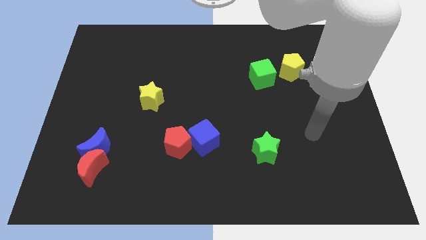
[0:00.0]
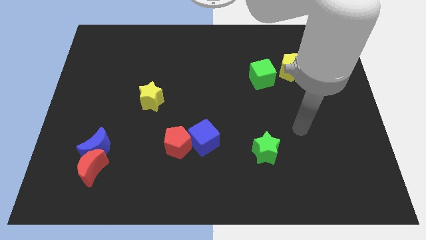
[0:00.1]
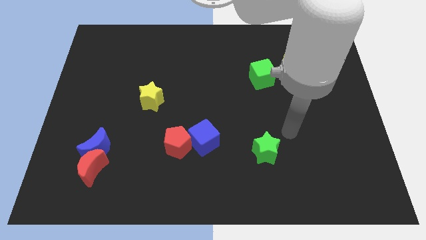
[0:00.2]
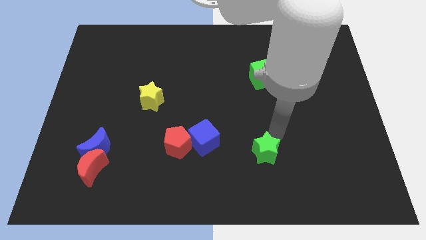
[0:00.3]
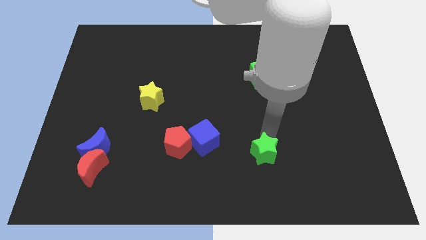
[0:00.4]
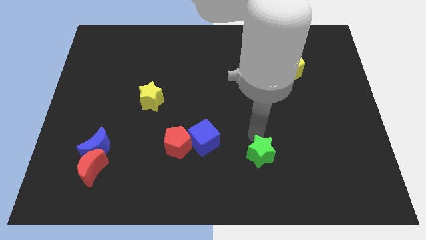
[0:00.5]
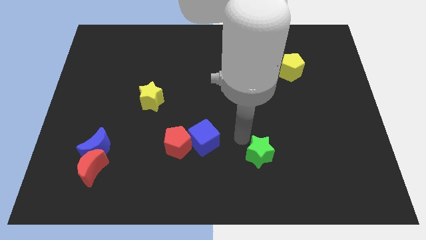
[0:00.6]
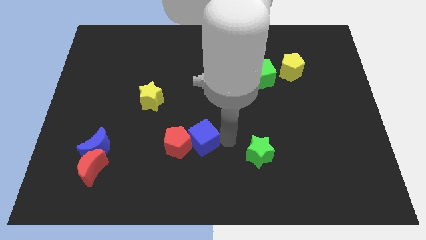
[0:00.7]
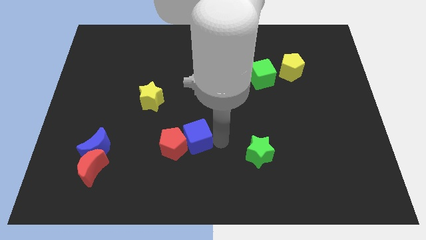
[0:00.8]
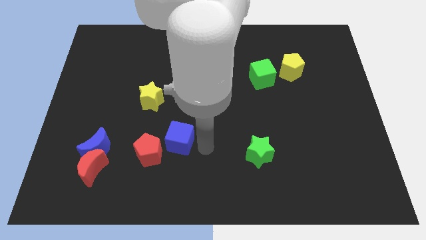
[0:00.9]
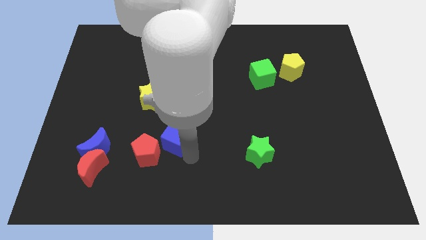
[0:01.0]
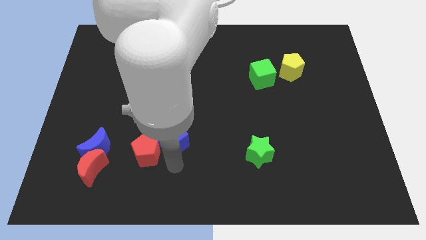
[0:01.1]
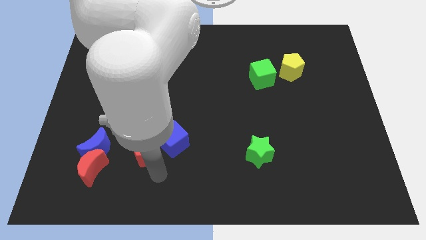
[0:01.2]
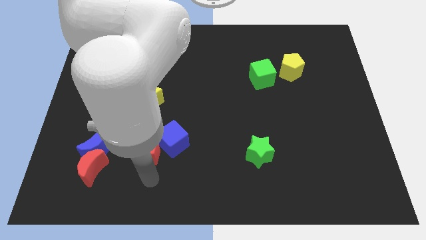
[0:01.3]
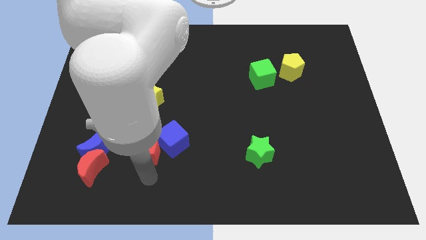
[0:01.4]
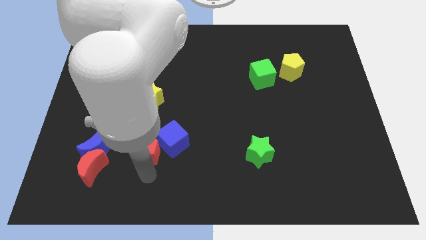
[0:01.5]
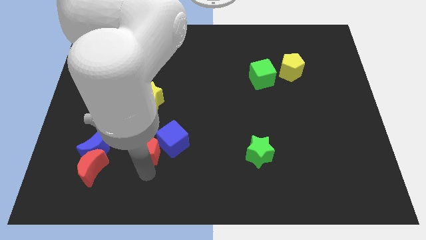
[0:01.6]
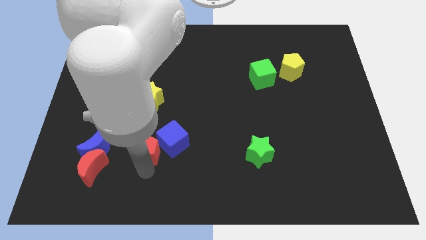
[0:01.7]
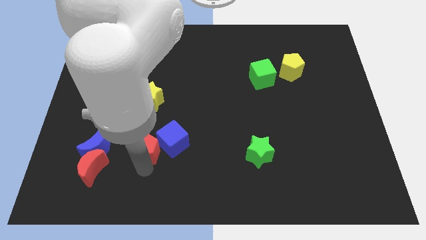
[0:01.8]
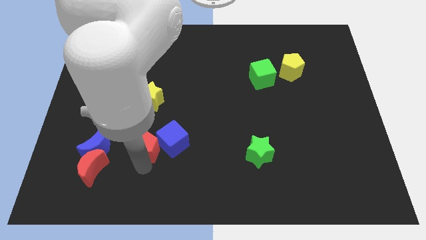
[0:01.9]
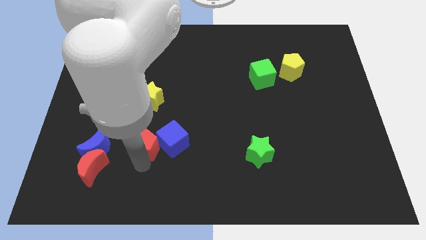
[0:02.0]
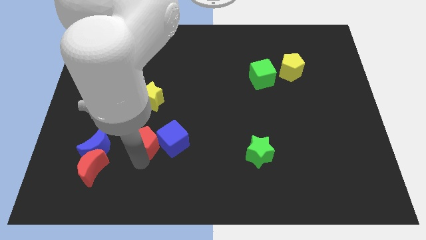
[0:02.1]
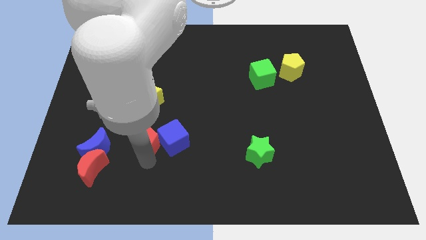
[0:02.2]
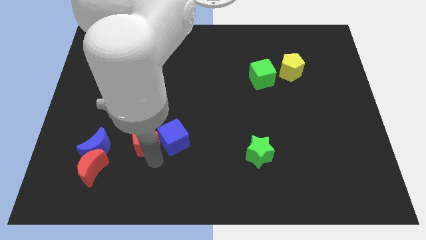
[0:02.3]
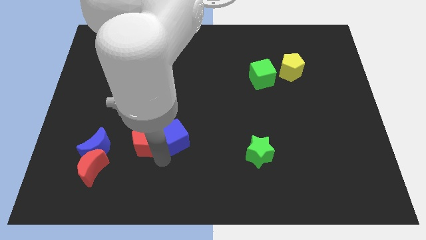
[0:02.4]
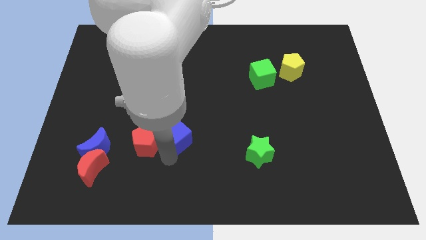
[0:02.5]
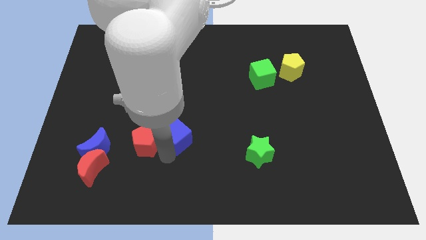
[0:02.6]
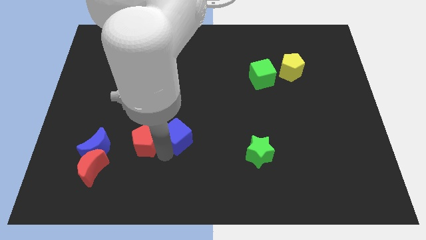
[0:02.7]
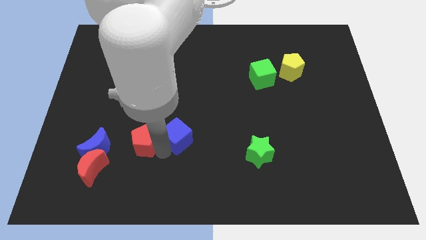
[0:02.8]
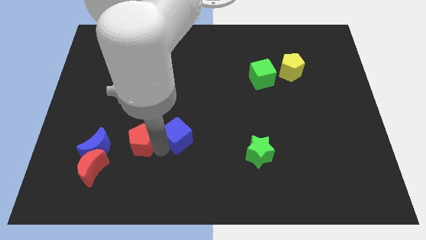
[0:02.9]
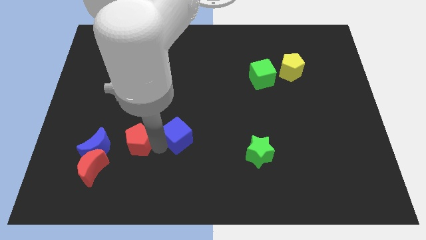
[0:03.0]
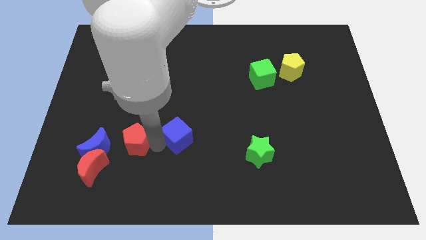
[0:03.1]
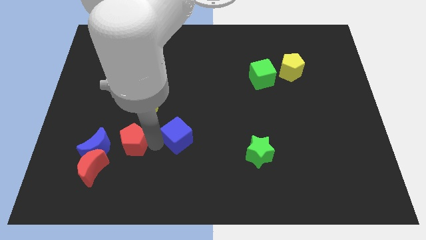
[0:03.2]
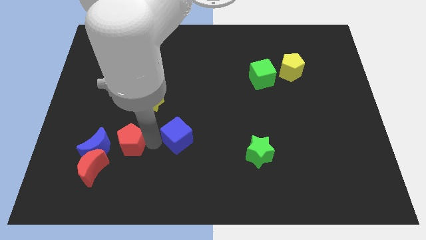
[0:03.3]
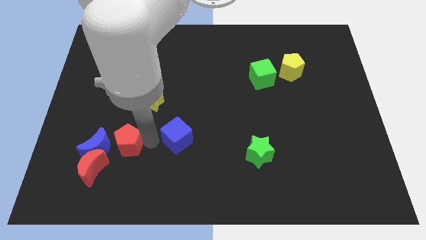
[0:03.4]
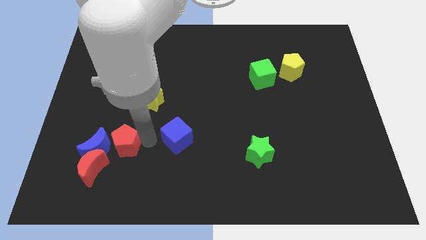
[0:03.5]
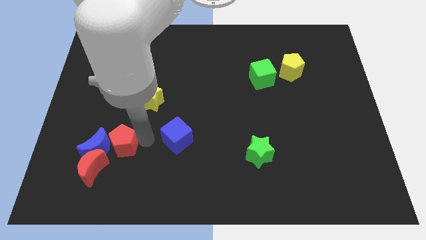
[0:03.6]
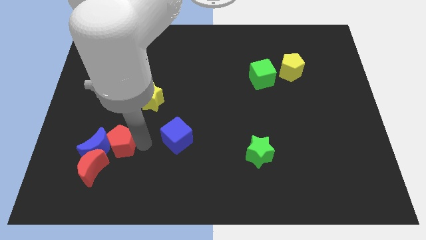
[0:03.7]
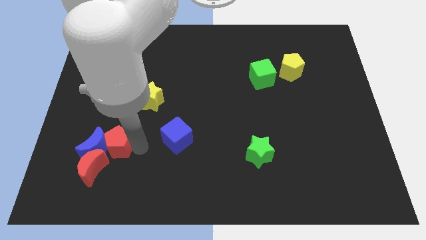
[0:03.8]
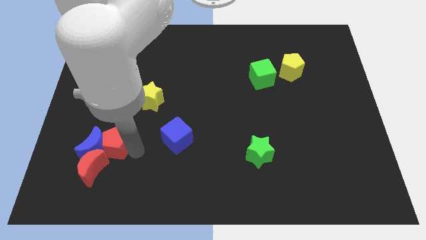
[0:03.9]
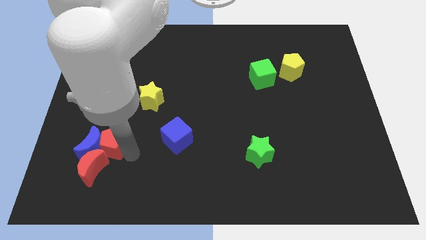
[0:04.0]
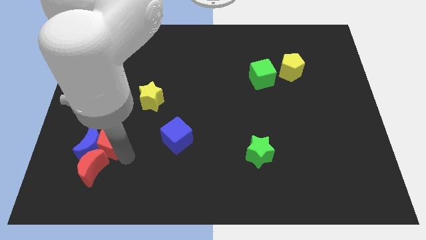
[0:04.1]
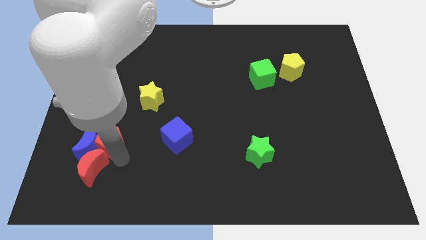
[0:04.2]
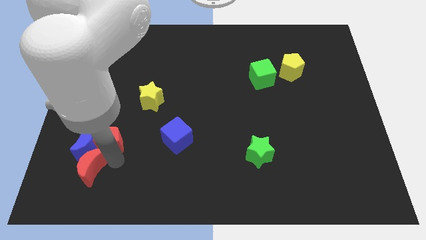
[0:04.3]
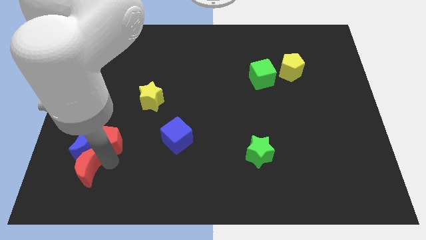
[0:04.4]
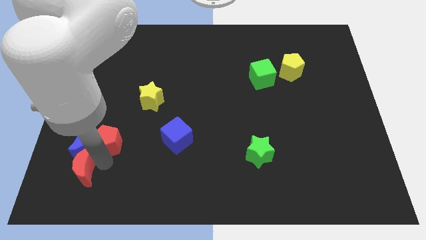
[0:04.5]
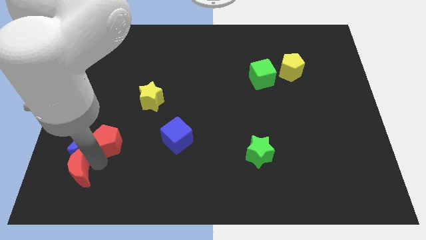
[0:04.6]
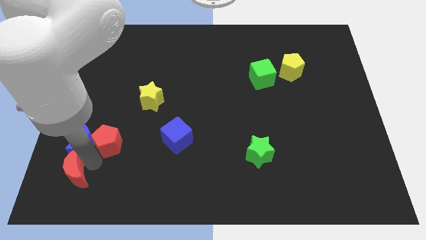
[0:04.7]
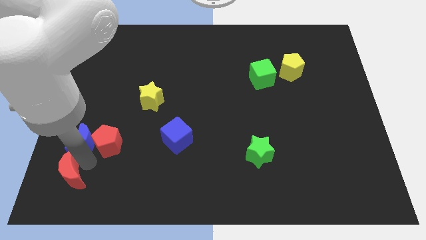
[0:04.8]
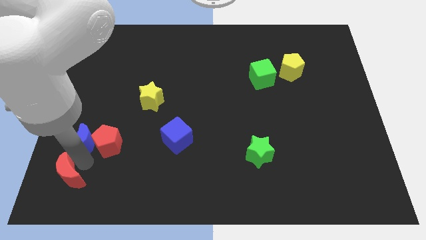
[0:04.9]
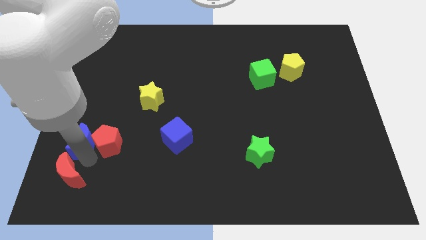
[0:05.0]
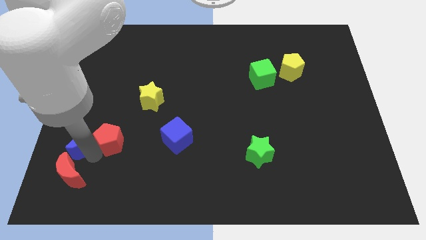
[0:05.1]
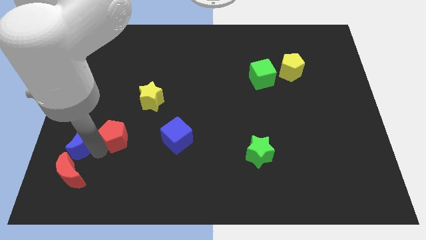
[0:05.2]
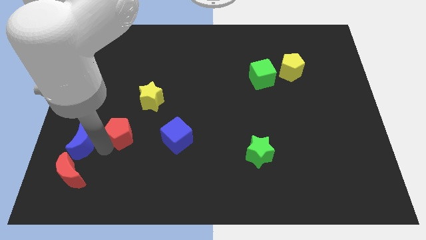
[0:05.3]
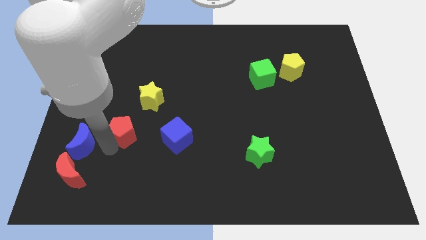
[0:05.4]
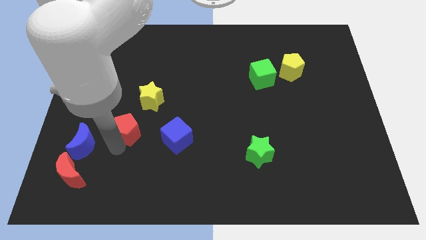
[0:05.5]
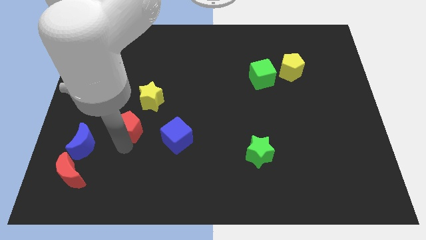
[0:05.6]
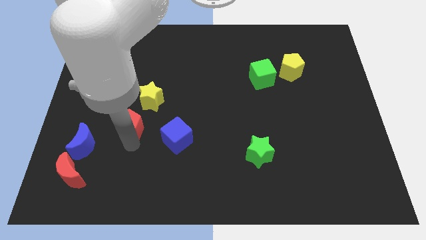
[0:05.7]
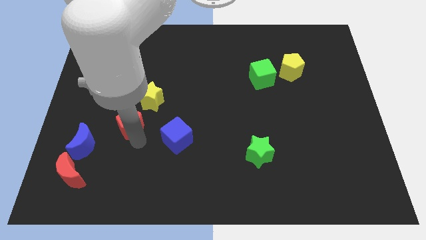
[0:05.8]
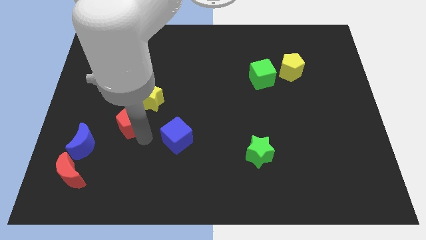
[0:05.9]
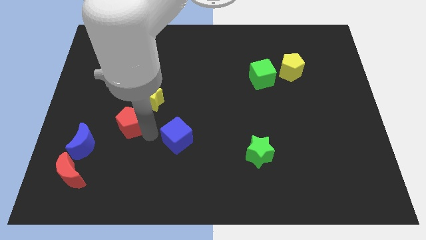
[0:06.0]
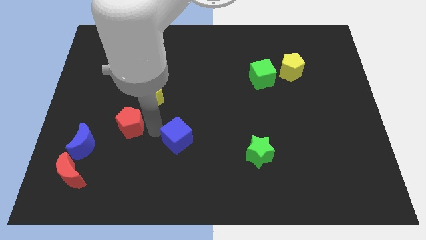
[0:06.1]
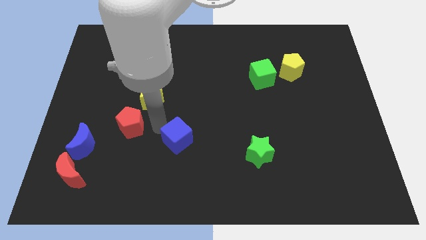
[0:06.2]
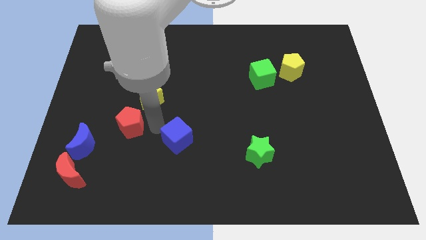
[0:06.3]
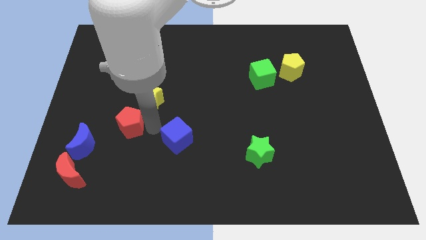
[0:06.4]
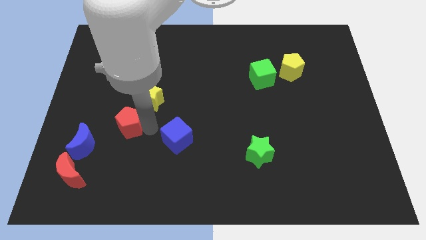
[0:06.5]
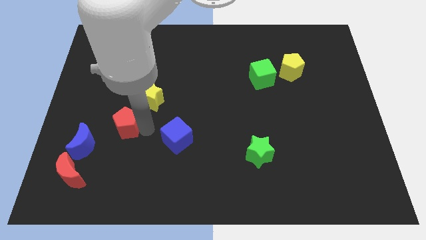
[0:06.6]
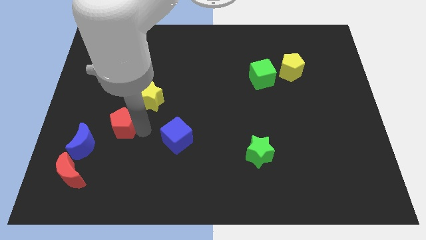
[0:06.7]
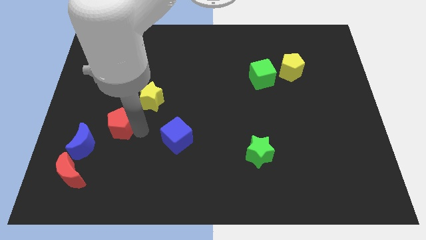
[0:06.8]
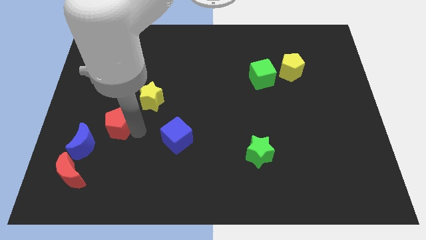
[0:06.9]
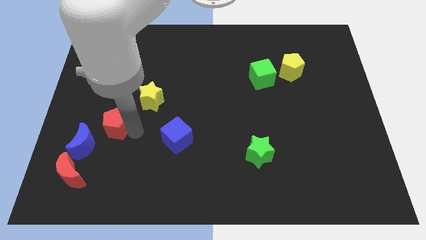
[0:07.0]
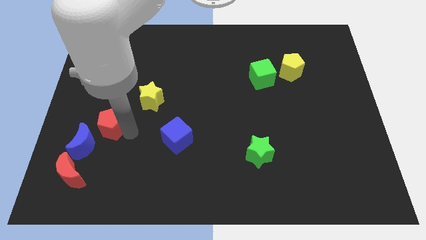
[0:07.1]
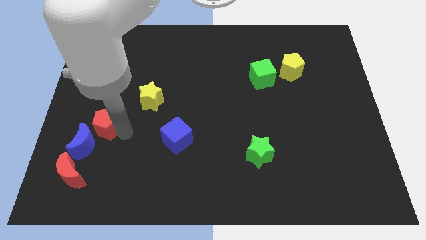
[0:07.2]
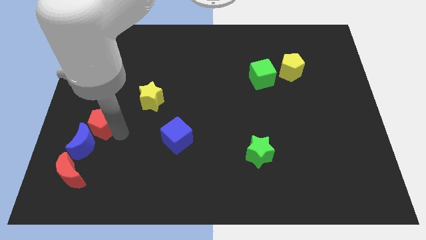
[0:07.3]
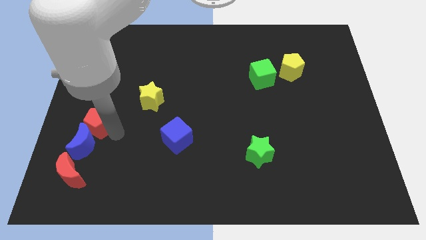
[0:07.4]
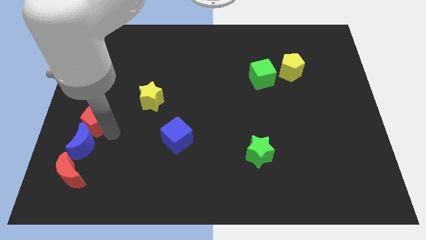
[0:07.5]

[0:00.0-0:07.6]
move the red pentagon to the left side
